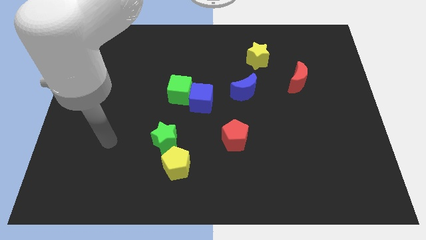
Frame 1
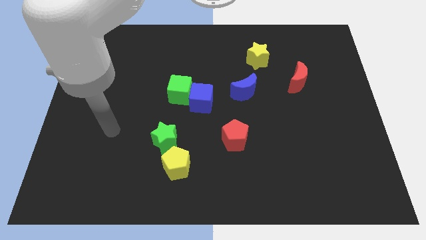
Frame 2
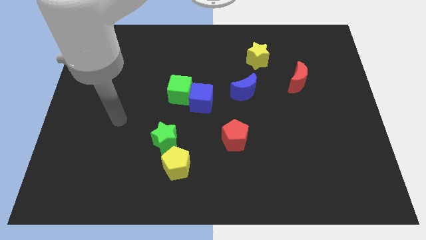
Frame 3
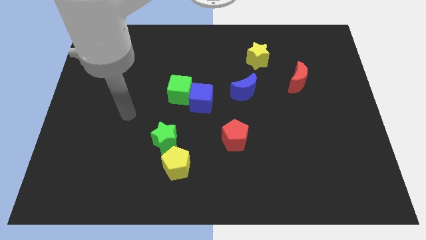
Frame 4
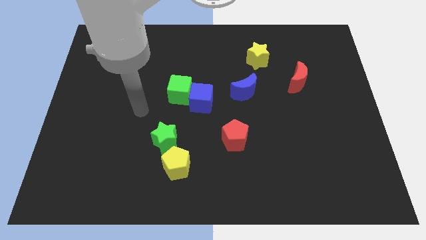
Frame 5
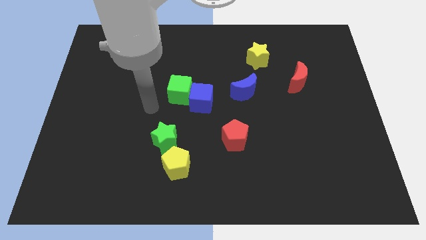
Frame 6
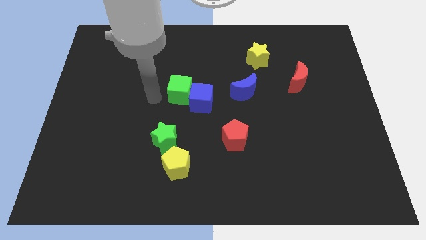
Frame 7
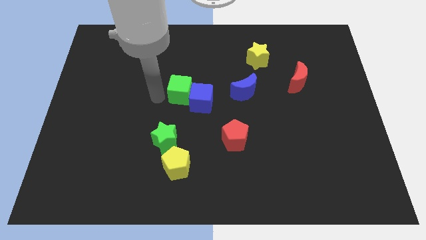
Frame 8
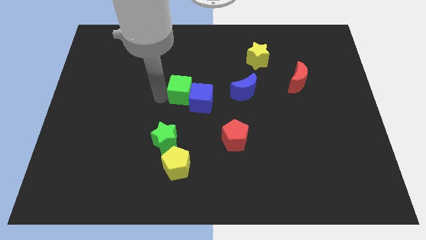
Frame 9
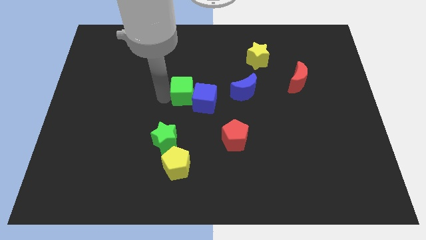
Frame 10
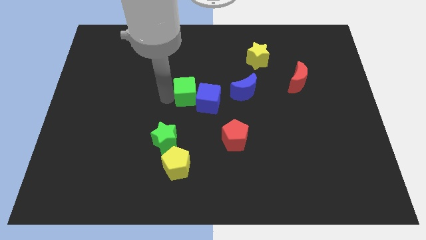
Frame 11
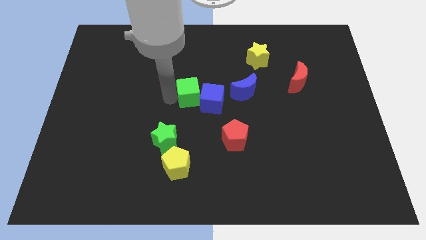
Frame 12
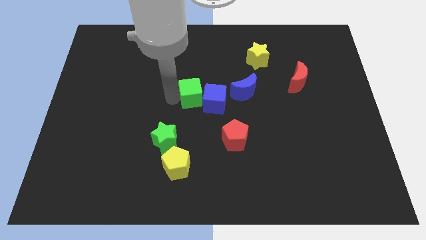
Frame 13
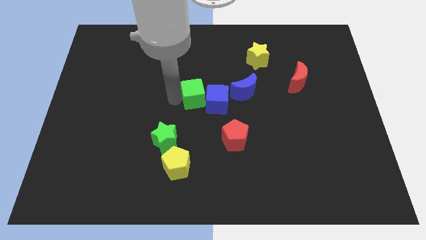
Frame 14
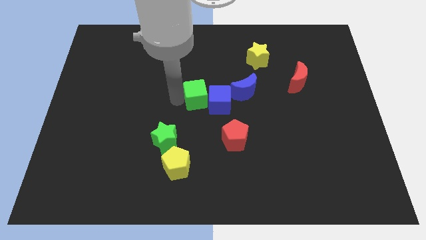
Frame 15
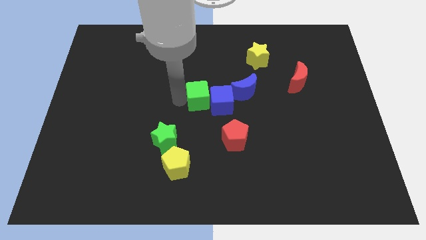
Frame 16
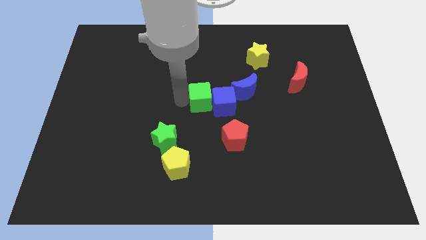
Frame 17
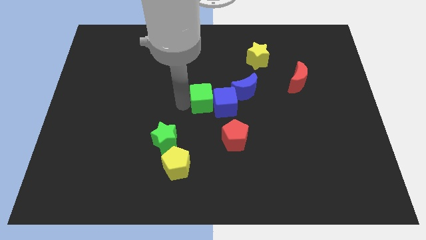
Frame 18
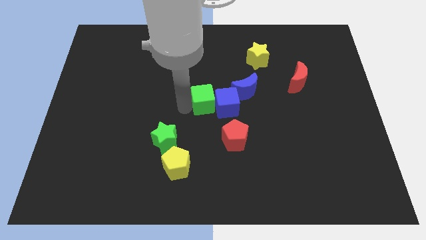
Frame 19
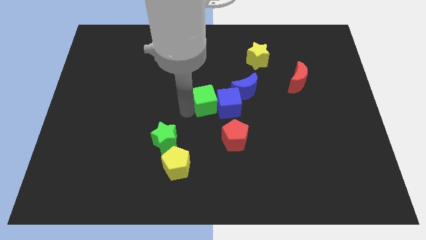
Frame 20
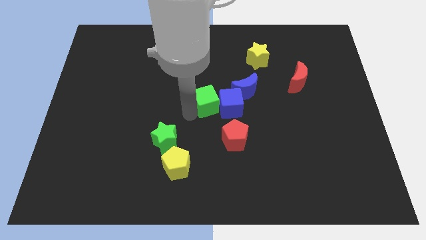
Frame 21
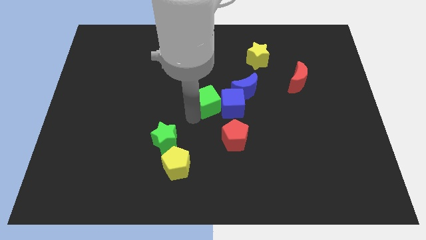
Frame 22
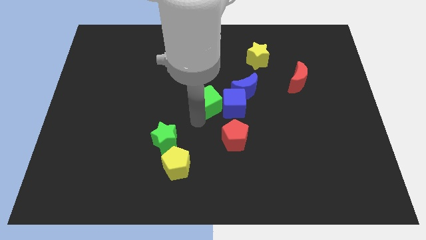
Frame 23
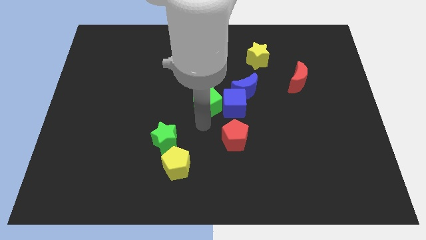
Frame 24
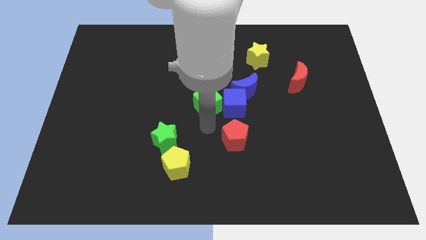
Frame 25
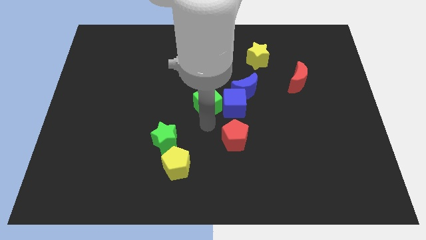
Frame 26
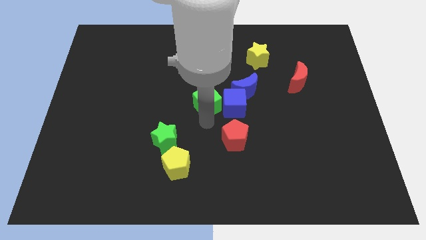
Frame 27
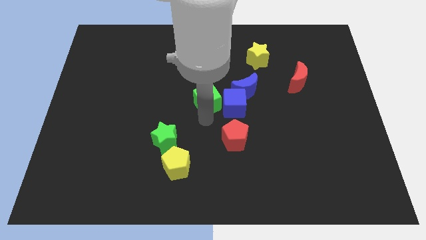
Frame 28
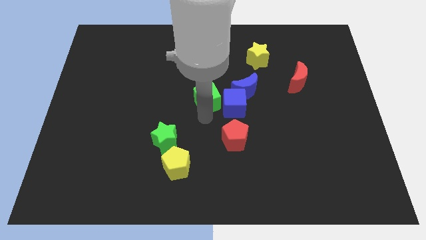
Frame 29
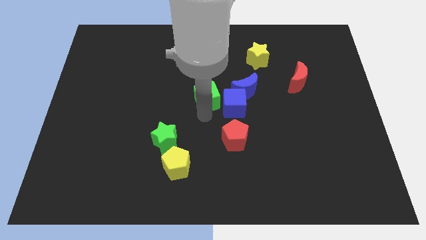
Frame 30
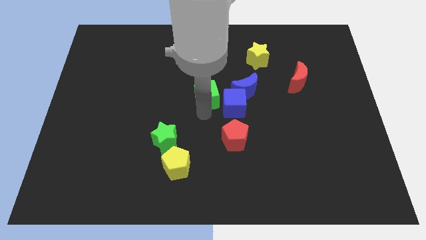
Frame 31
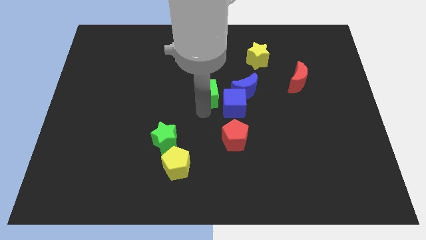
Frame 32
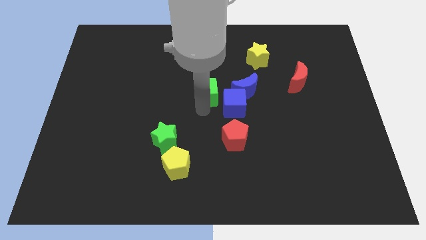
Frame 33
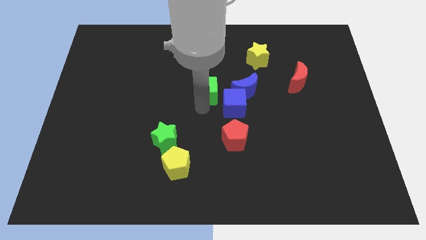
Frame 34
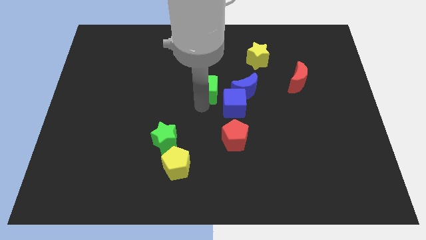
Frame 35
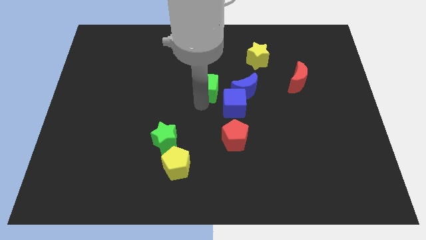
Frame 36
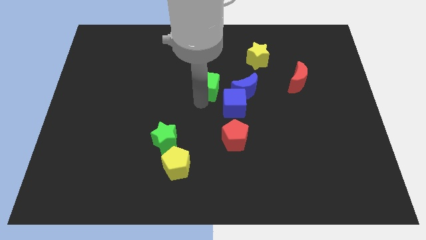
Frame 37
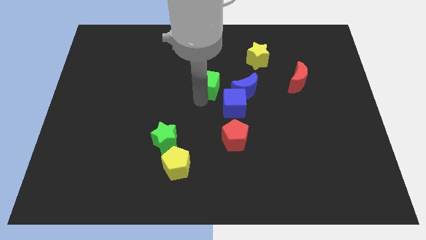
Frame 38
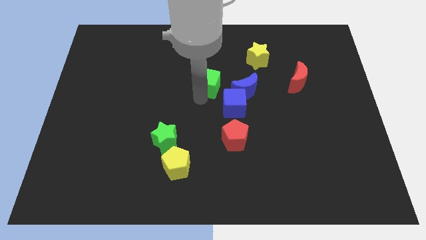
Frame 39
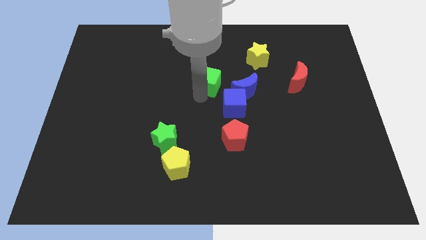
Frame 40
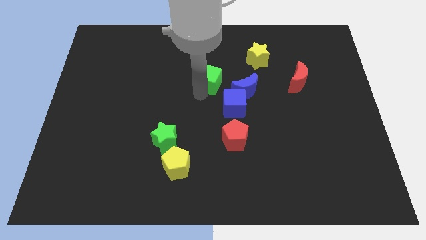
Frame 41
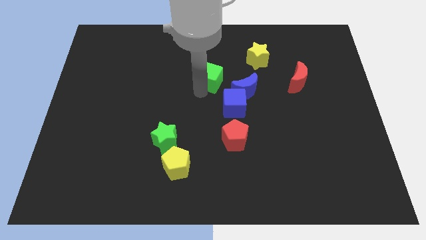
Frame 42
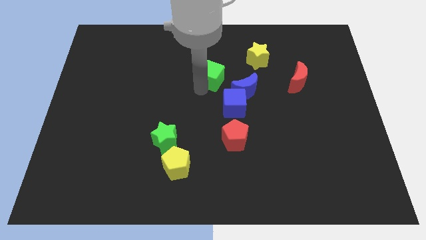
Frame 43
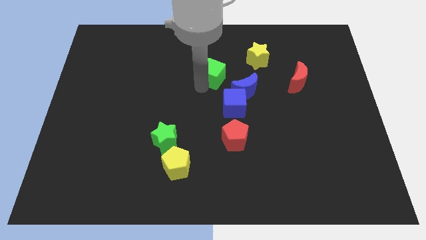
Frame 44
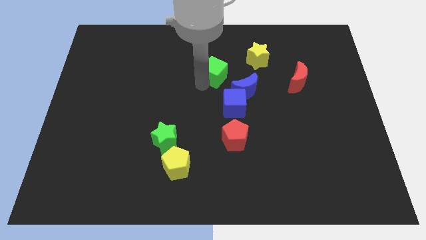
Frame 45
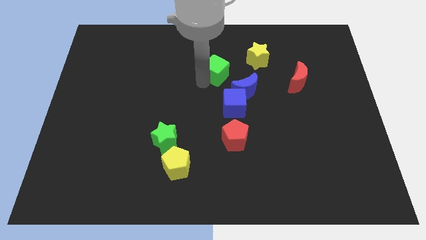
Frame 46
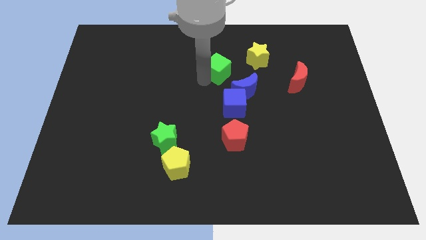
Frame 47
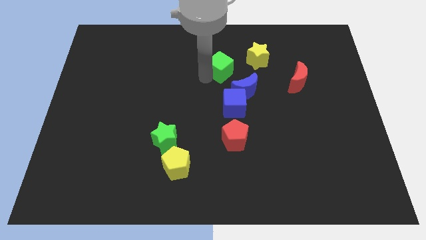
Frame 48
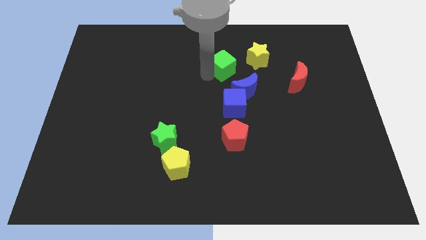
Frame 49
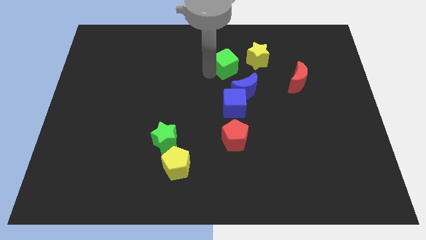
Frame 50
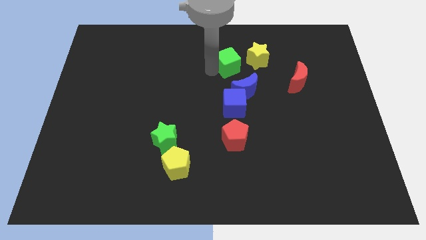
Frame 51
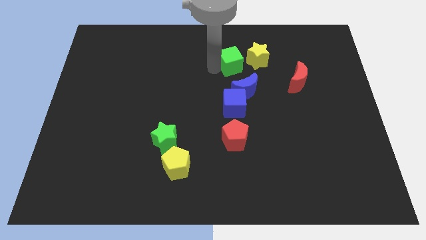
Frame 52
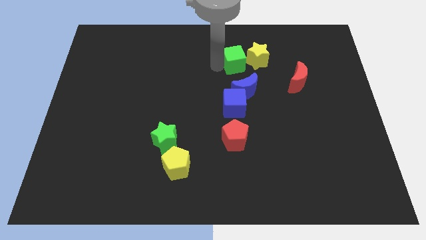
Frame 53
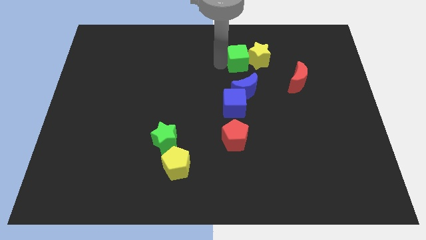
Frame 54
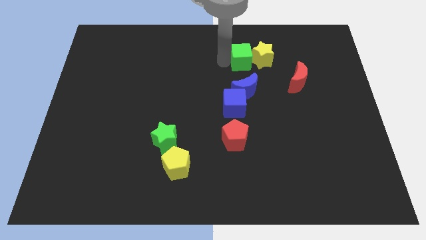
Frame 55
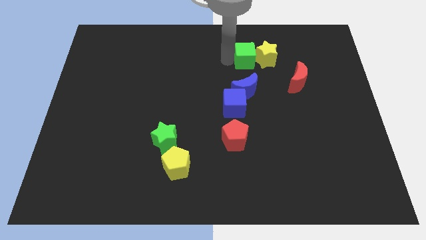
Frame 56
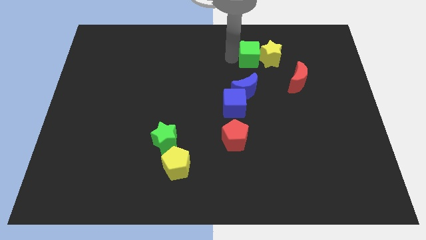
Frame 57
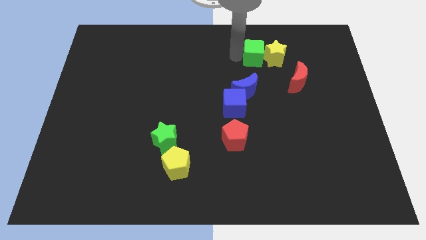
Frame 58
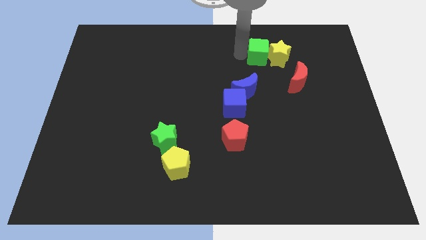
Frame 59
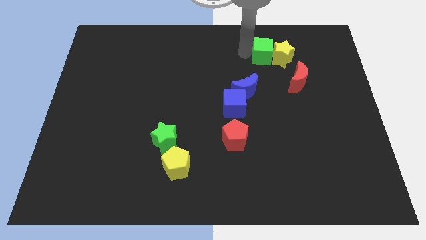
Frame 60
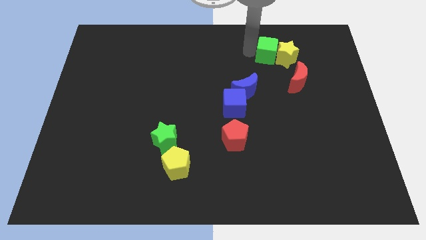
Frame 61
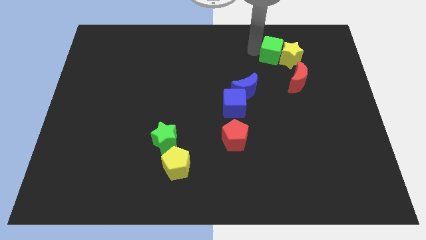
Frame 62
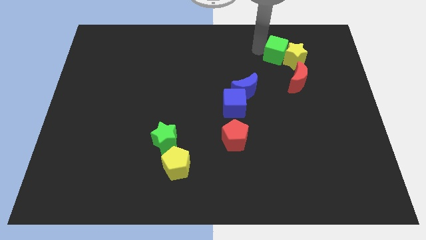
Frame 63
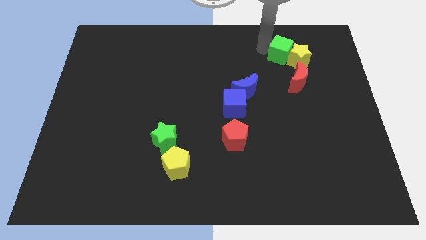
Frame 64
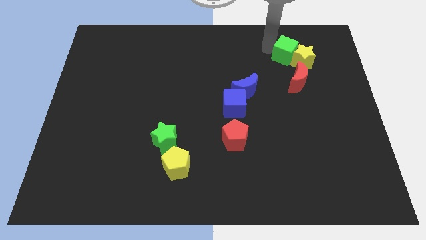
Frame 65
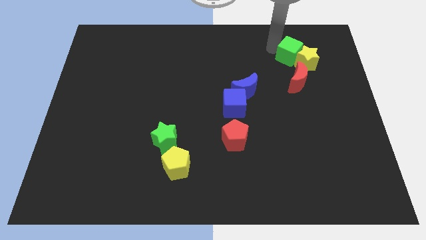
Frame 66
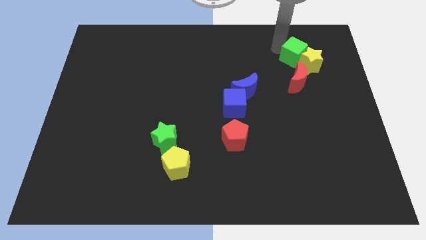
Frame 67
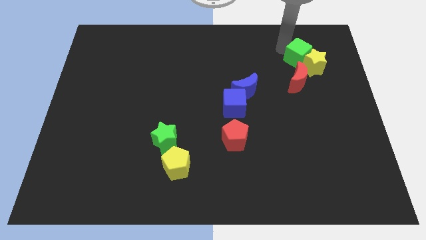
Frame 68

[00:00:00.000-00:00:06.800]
slide the green cube right

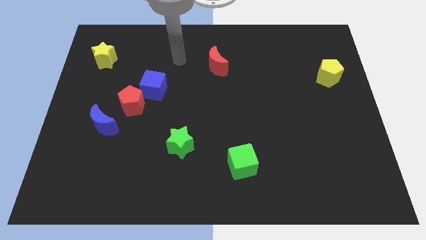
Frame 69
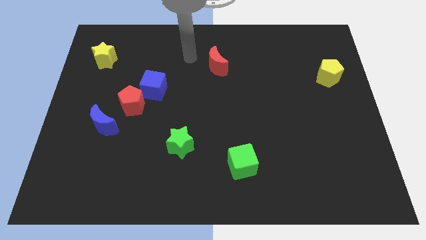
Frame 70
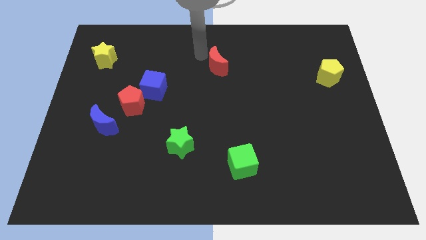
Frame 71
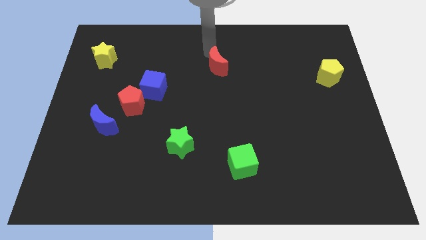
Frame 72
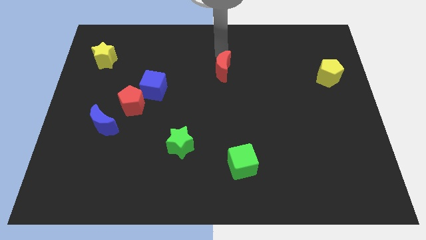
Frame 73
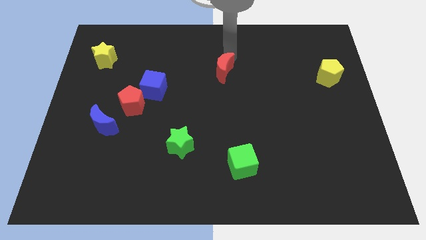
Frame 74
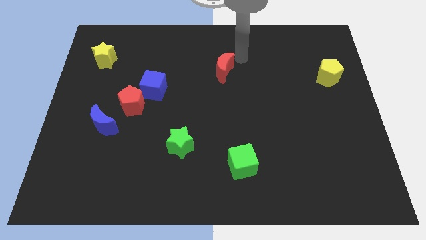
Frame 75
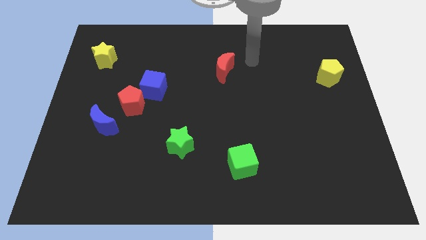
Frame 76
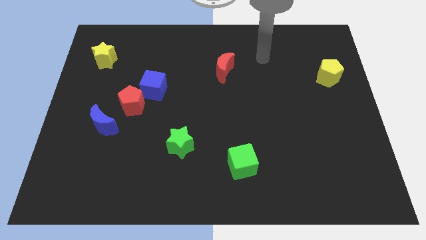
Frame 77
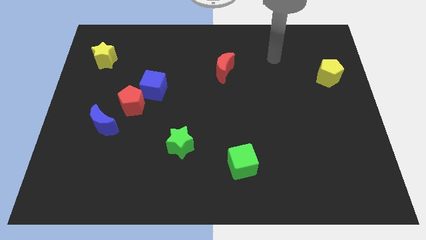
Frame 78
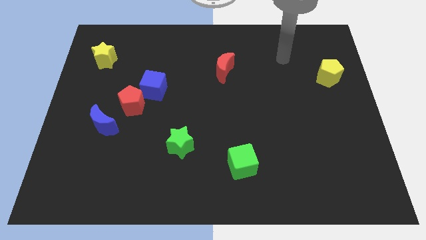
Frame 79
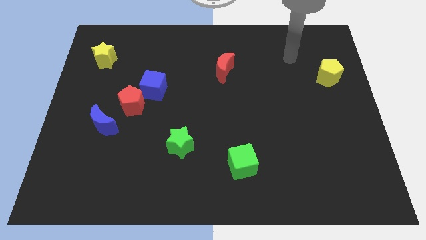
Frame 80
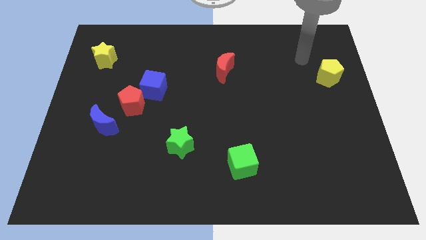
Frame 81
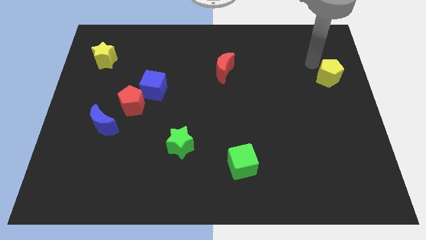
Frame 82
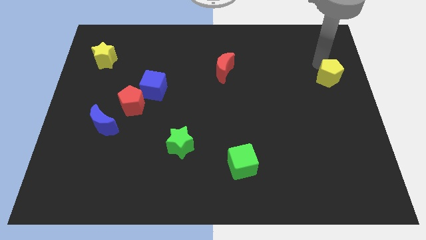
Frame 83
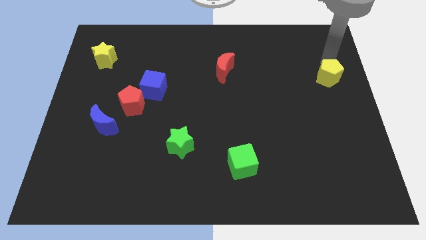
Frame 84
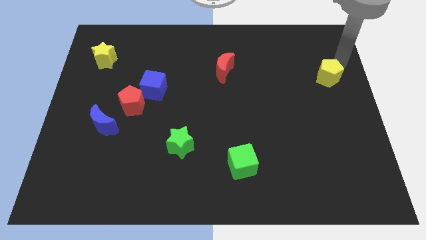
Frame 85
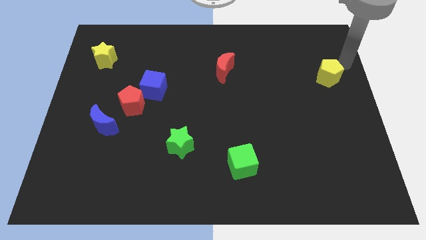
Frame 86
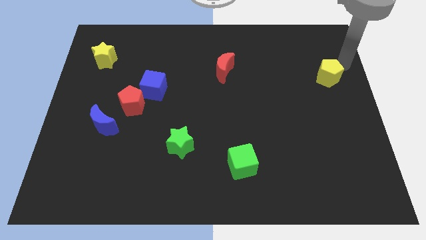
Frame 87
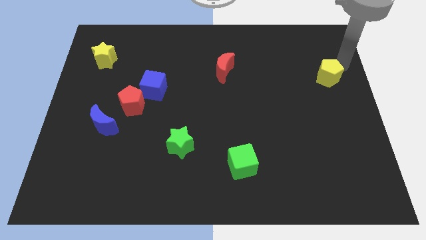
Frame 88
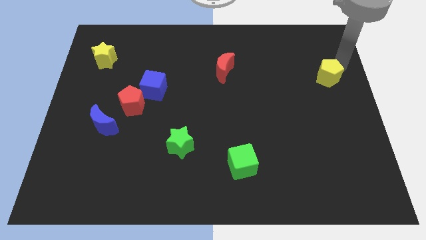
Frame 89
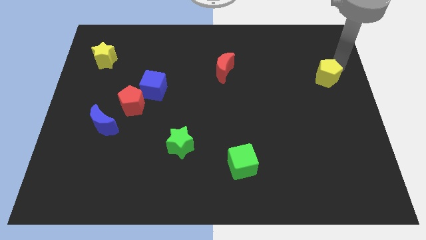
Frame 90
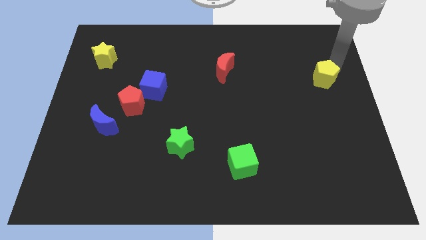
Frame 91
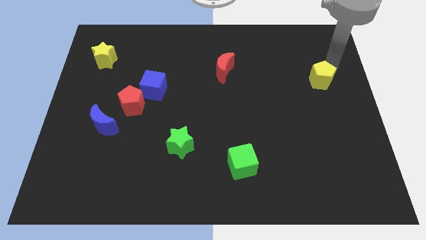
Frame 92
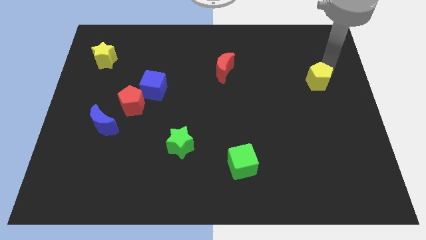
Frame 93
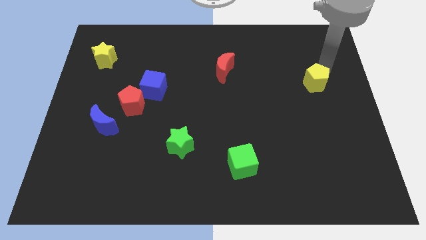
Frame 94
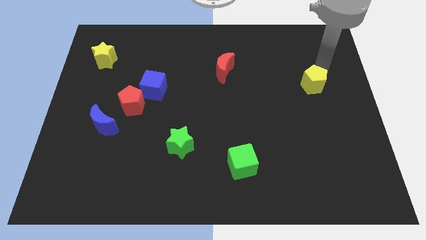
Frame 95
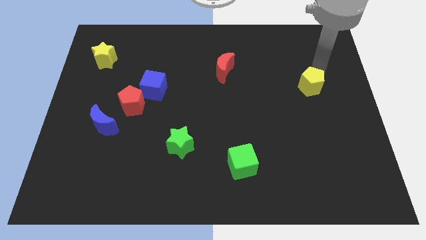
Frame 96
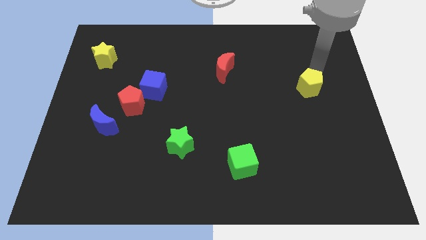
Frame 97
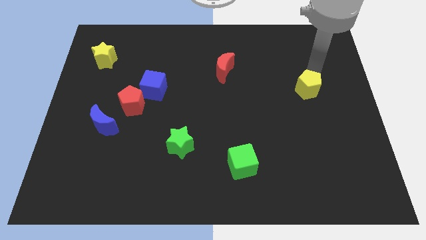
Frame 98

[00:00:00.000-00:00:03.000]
slightly push the yellow pentagon downwards and left
